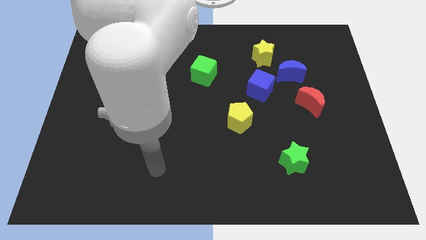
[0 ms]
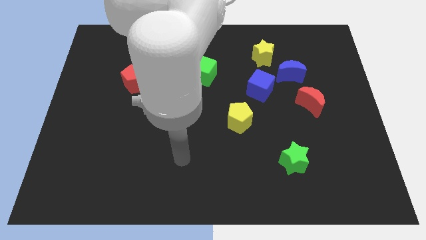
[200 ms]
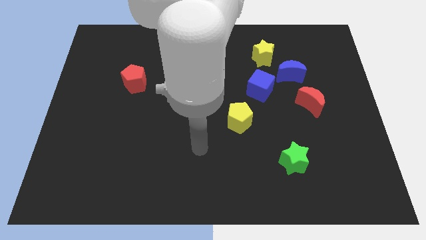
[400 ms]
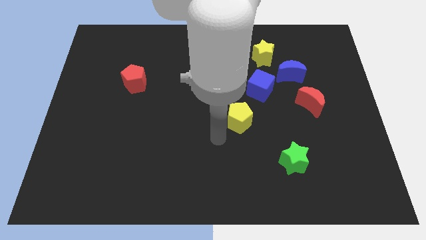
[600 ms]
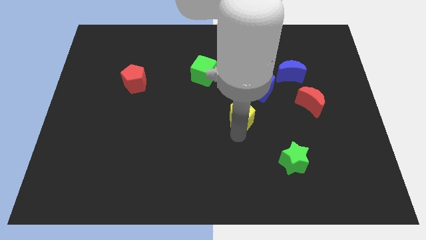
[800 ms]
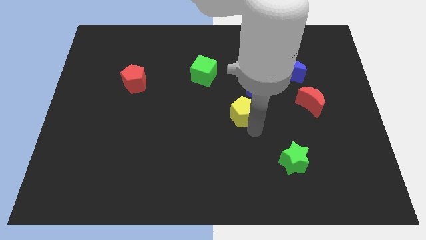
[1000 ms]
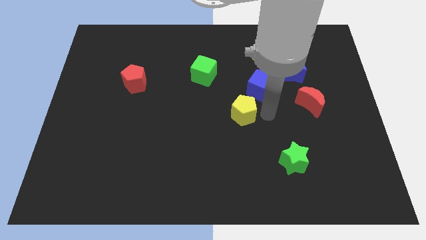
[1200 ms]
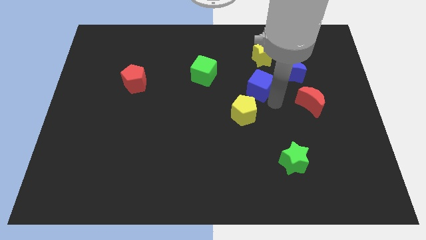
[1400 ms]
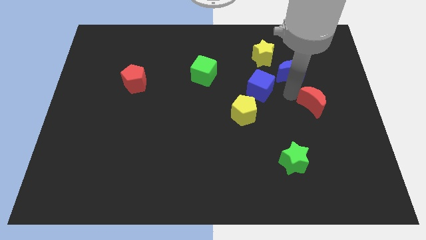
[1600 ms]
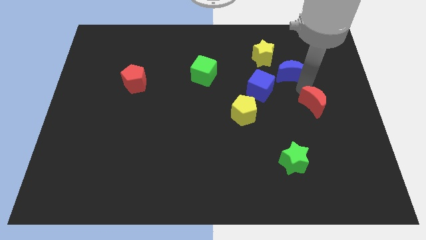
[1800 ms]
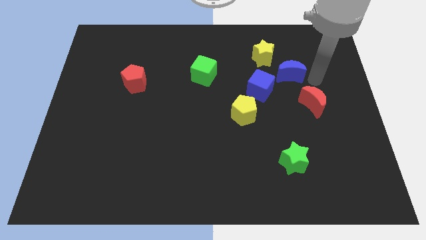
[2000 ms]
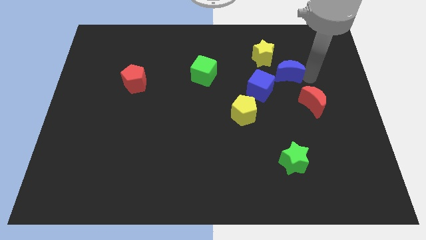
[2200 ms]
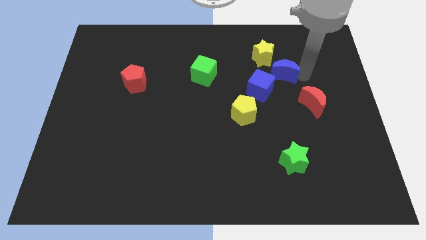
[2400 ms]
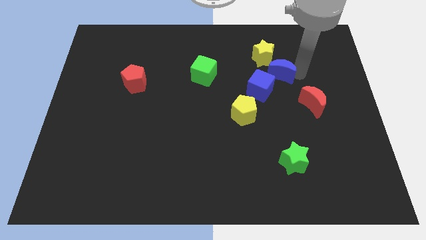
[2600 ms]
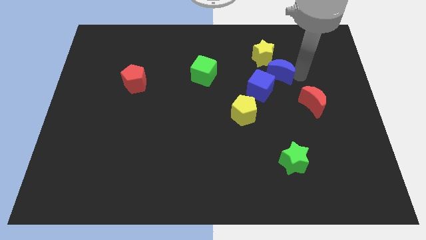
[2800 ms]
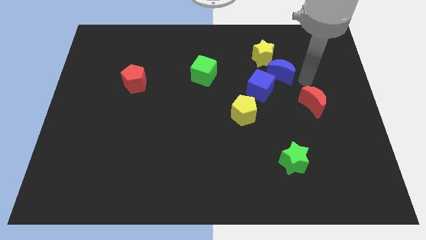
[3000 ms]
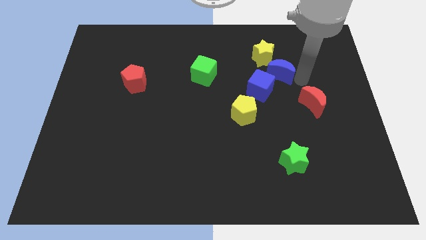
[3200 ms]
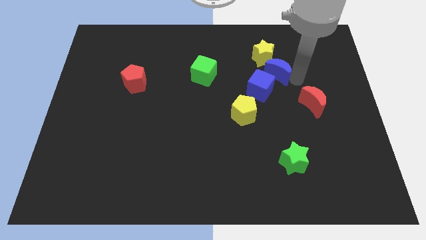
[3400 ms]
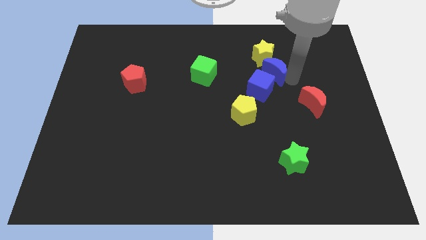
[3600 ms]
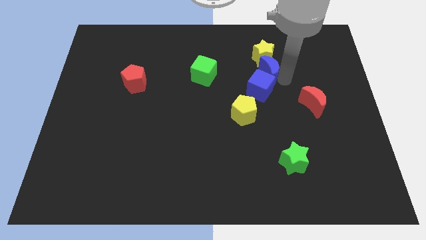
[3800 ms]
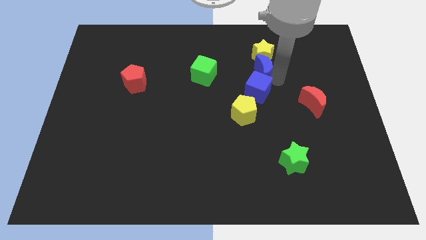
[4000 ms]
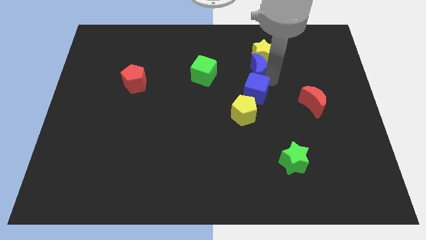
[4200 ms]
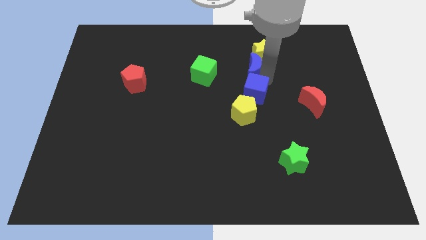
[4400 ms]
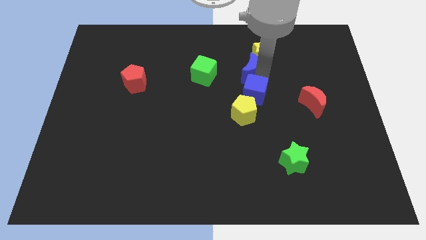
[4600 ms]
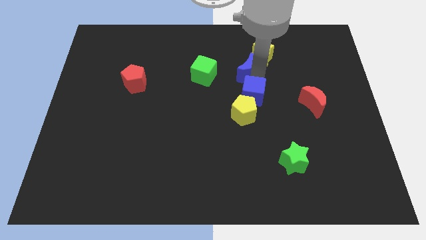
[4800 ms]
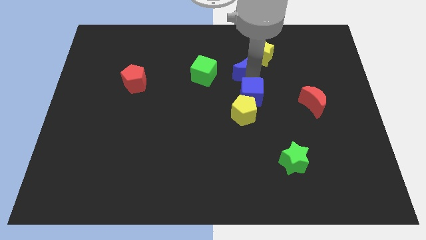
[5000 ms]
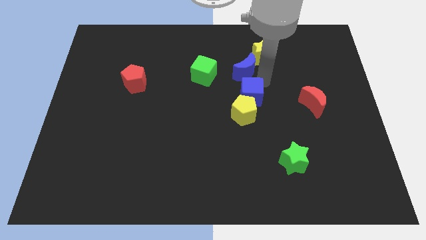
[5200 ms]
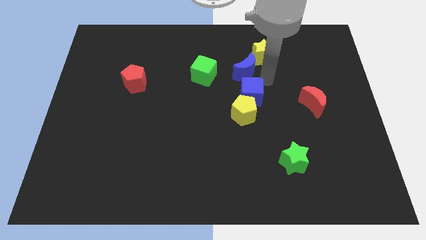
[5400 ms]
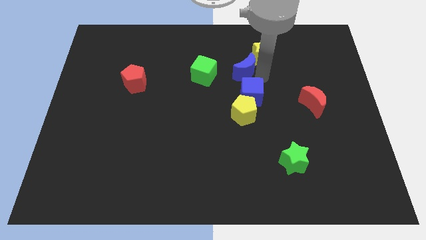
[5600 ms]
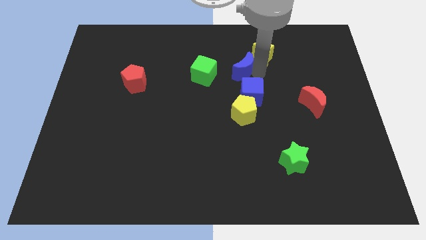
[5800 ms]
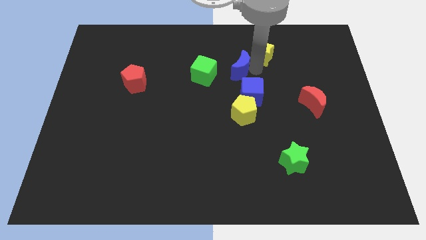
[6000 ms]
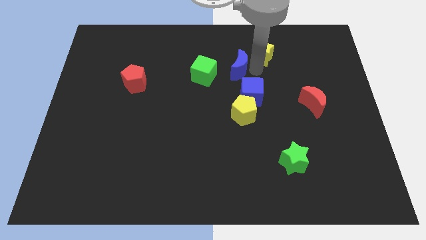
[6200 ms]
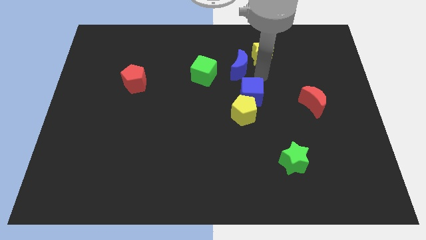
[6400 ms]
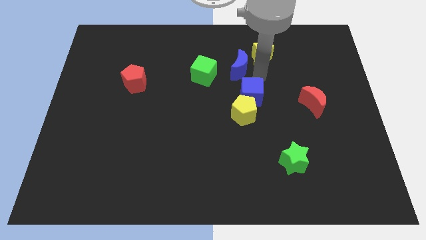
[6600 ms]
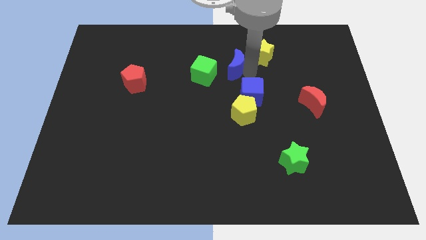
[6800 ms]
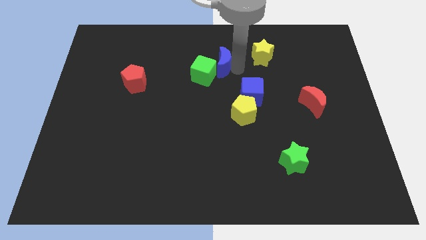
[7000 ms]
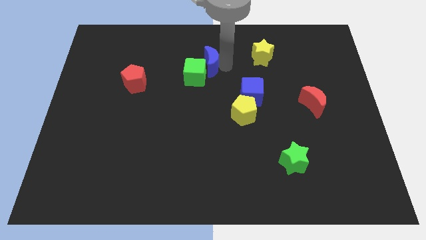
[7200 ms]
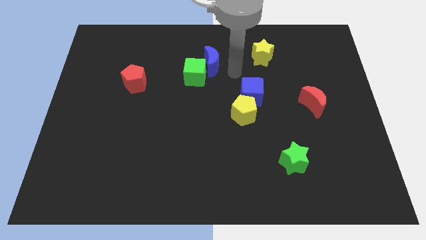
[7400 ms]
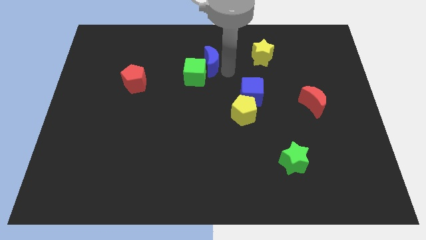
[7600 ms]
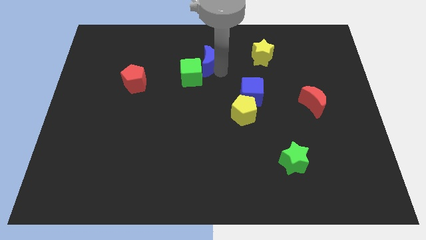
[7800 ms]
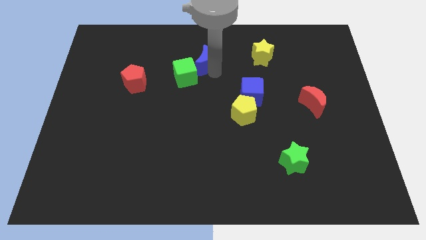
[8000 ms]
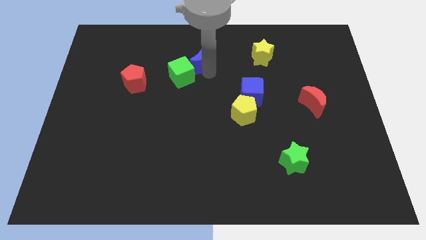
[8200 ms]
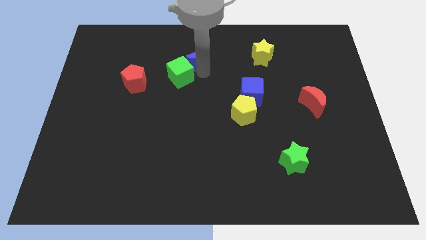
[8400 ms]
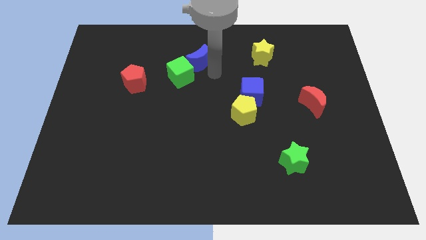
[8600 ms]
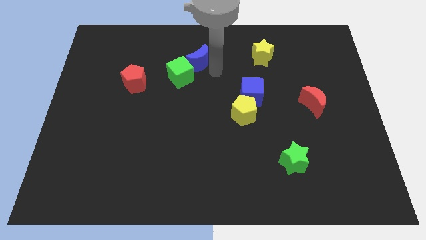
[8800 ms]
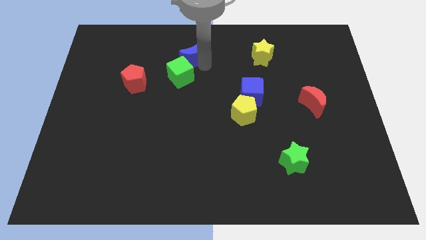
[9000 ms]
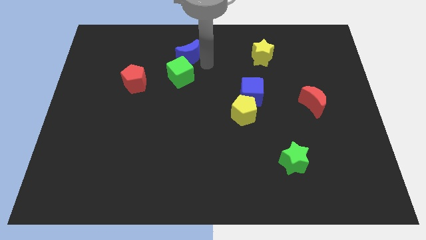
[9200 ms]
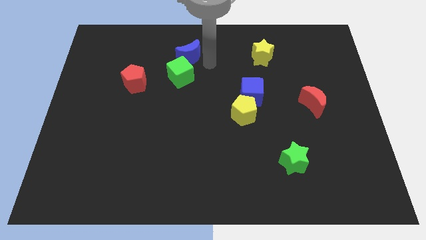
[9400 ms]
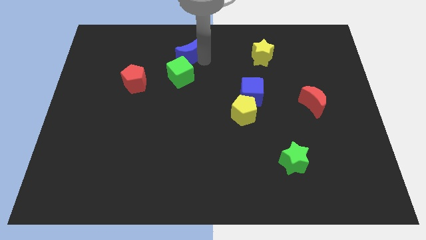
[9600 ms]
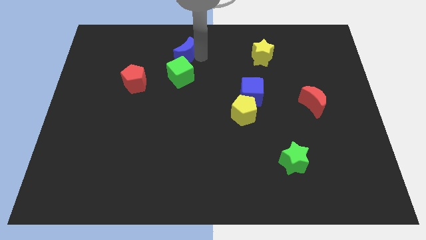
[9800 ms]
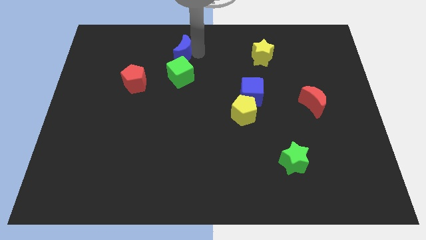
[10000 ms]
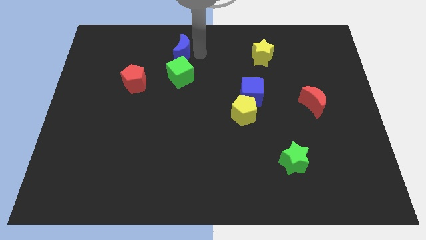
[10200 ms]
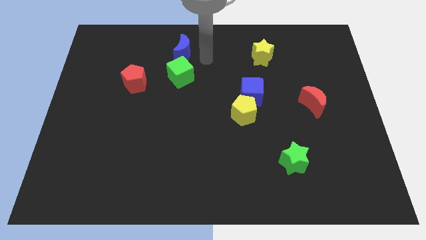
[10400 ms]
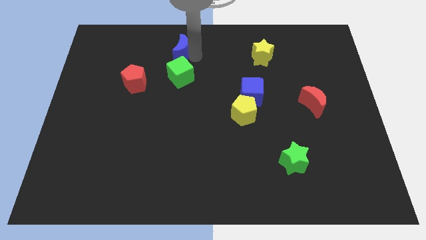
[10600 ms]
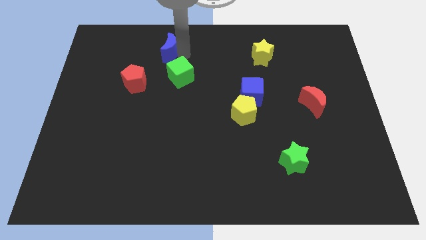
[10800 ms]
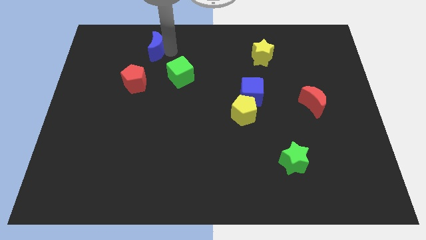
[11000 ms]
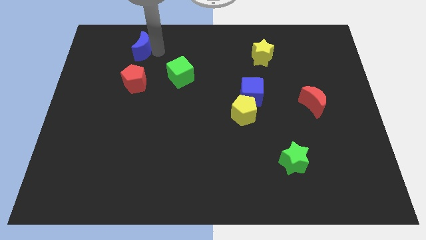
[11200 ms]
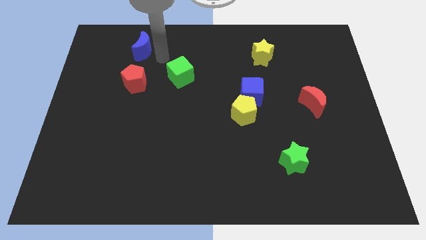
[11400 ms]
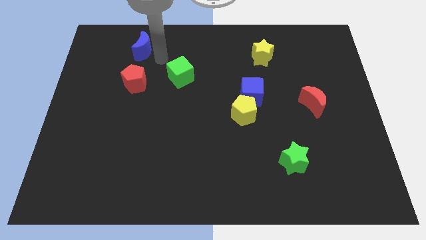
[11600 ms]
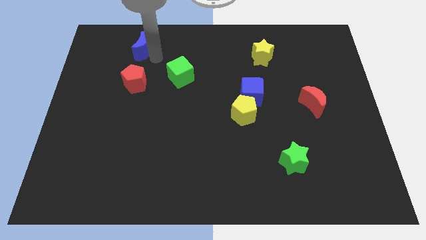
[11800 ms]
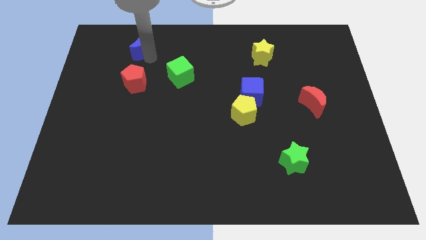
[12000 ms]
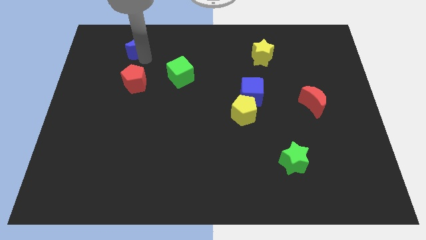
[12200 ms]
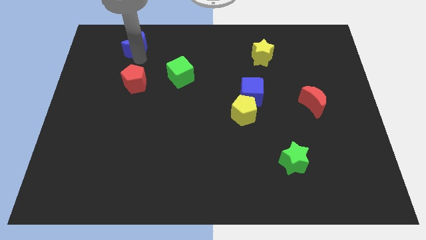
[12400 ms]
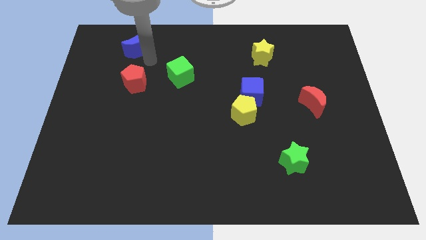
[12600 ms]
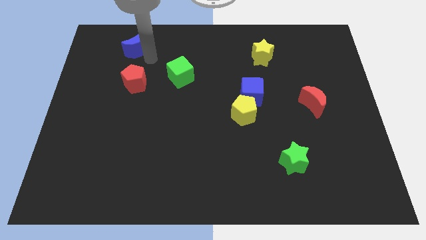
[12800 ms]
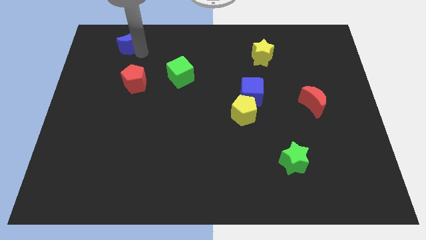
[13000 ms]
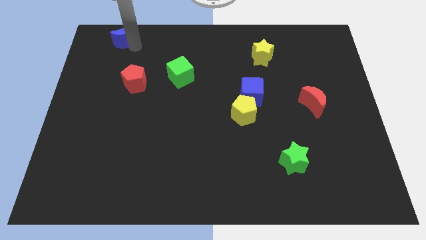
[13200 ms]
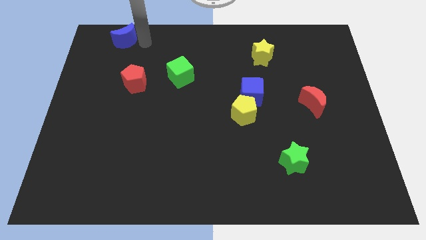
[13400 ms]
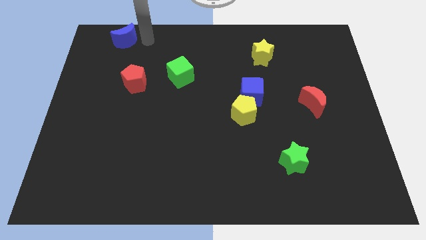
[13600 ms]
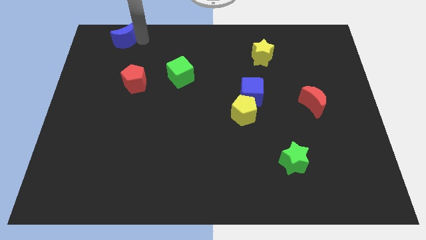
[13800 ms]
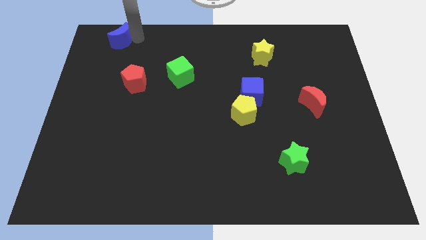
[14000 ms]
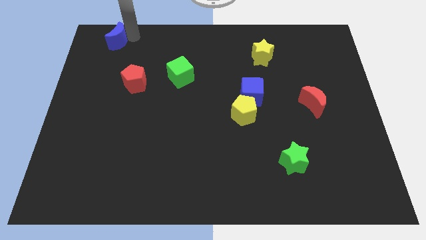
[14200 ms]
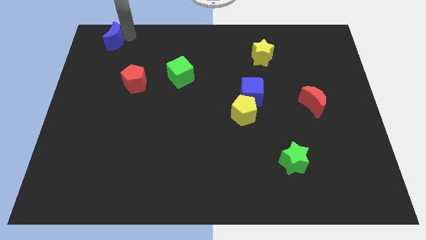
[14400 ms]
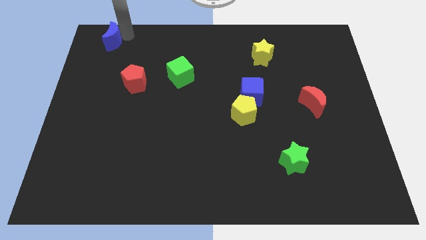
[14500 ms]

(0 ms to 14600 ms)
move the blue moon to the top left corner
